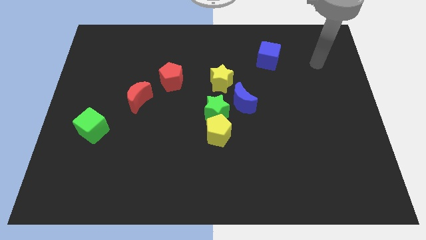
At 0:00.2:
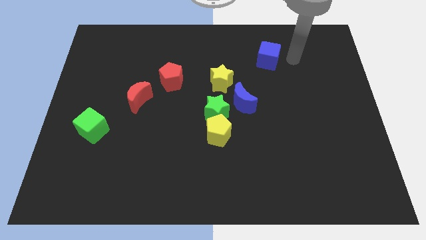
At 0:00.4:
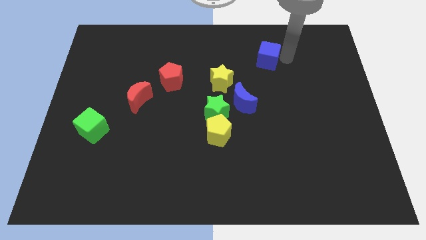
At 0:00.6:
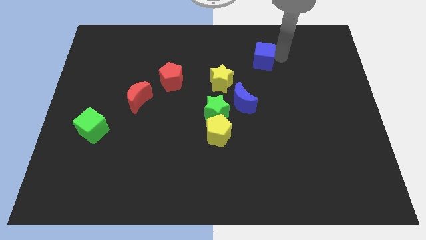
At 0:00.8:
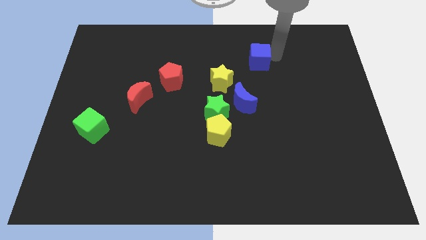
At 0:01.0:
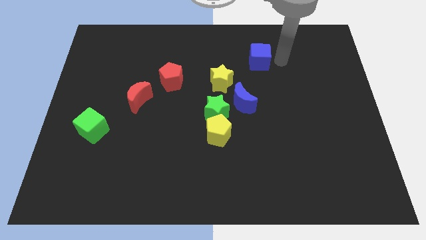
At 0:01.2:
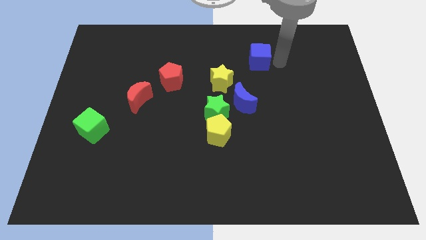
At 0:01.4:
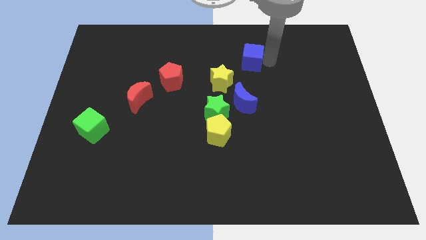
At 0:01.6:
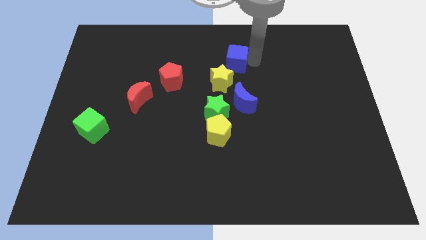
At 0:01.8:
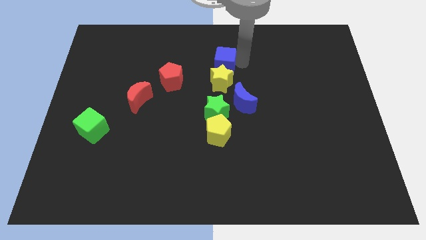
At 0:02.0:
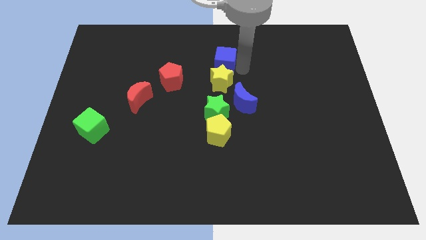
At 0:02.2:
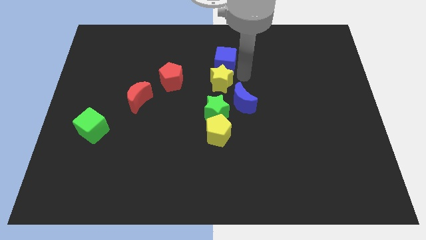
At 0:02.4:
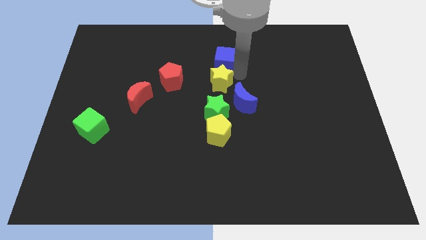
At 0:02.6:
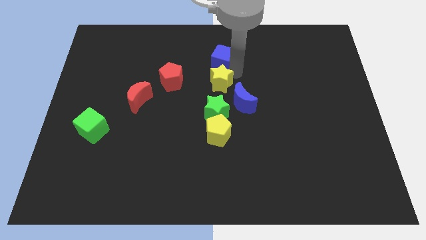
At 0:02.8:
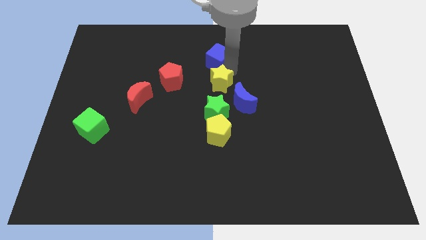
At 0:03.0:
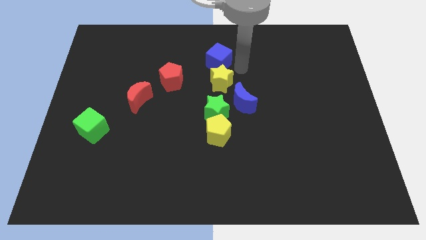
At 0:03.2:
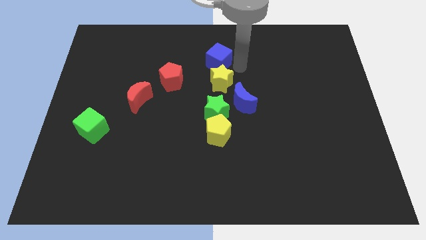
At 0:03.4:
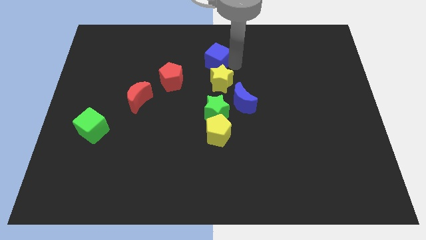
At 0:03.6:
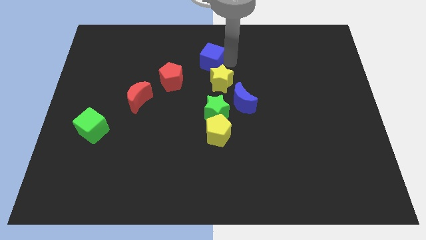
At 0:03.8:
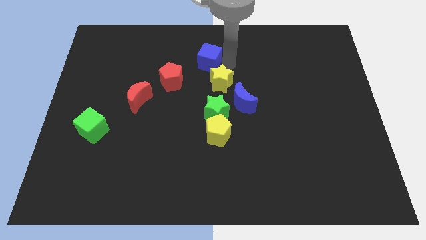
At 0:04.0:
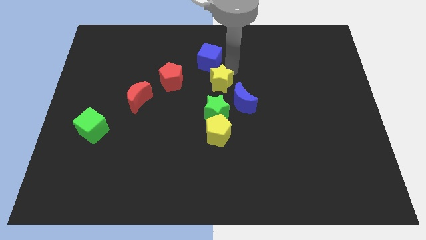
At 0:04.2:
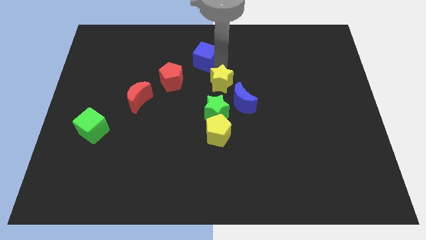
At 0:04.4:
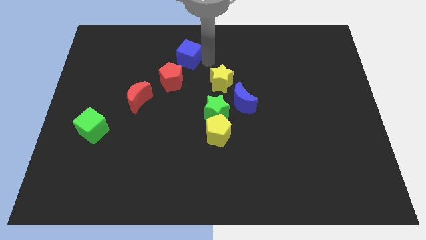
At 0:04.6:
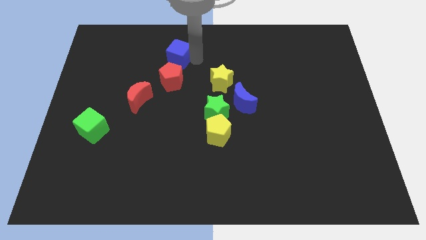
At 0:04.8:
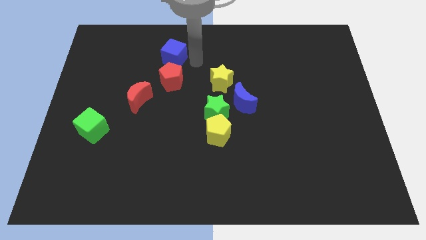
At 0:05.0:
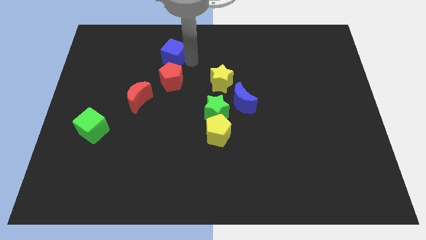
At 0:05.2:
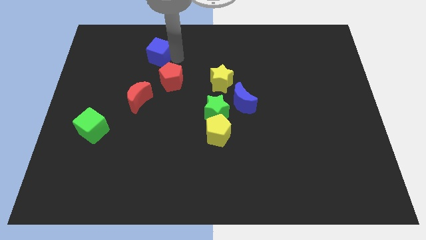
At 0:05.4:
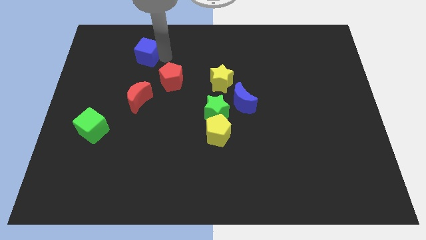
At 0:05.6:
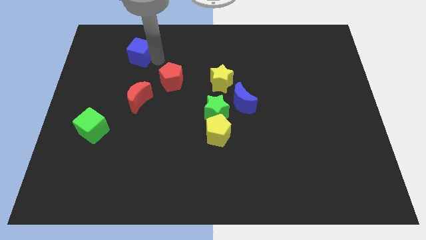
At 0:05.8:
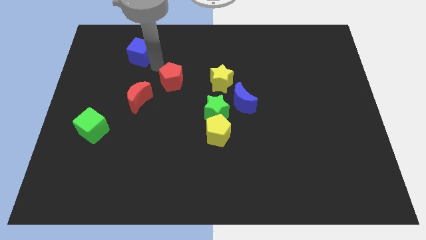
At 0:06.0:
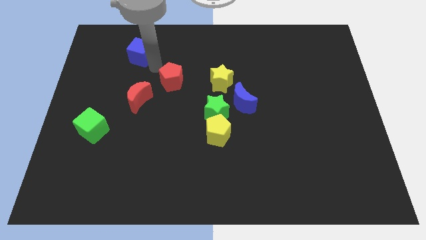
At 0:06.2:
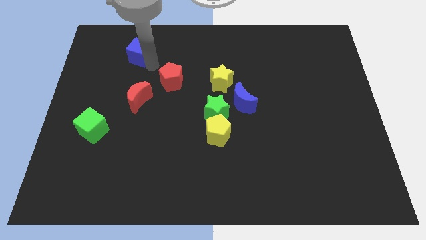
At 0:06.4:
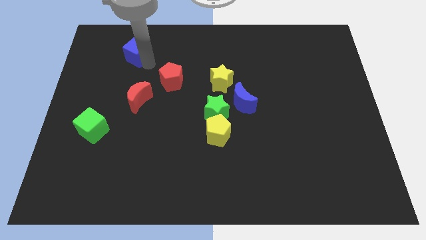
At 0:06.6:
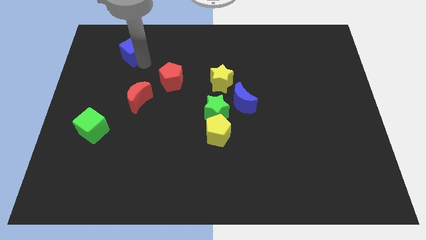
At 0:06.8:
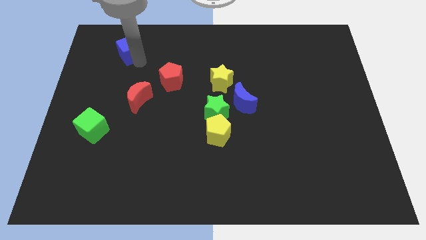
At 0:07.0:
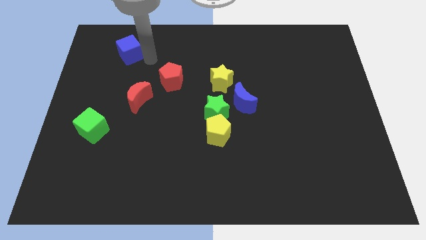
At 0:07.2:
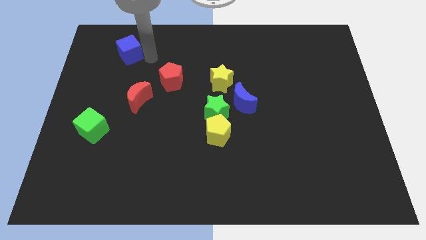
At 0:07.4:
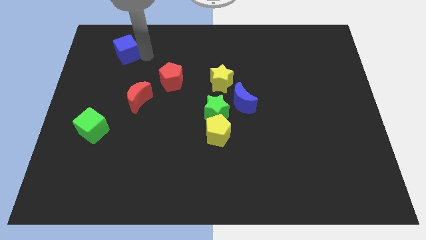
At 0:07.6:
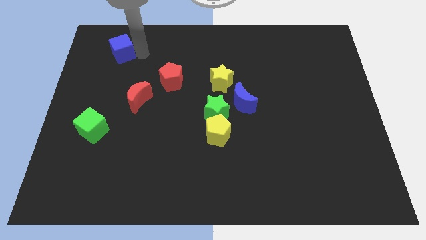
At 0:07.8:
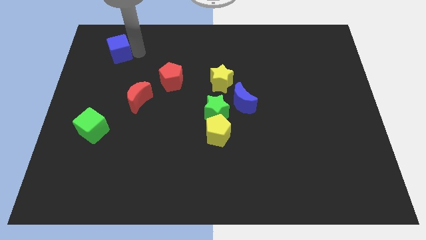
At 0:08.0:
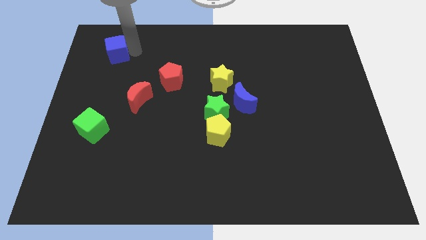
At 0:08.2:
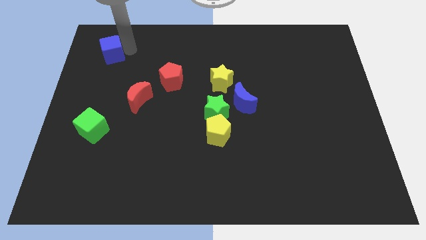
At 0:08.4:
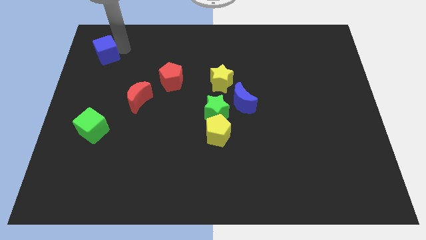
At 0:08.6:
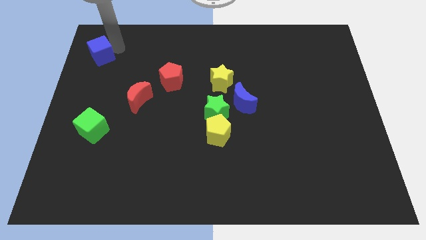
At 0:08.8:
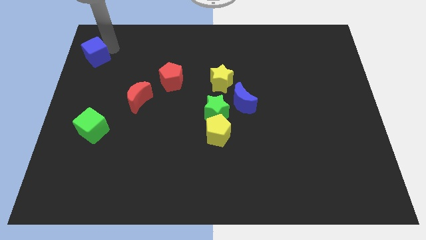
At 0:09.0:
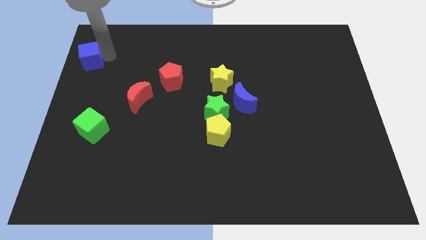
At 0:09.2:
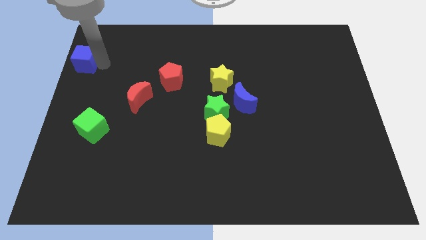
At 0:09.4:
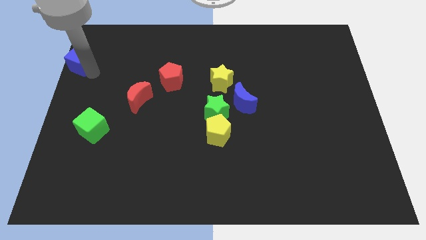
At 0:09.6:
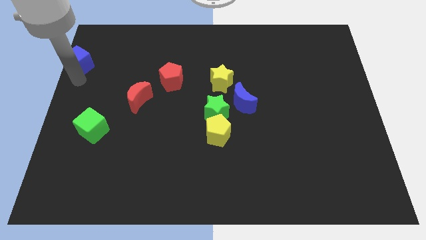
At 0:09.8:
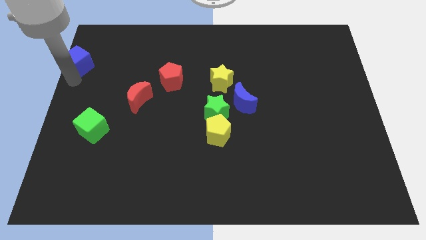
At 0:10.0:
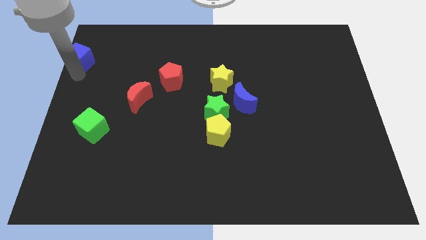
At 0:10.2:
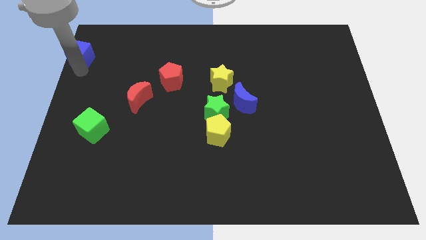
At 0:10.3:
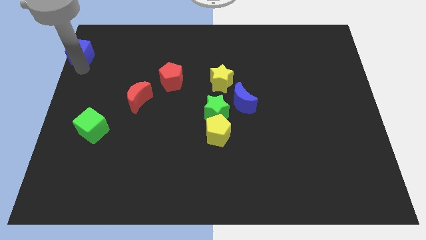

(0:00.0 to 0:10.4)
slide the blue cube to the upper left corner

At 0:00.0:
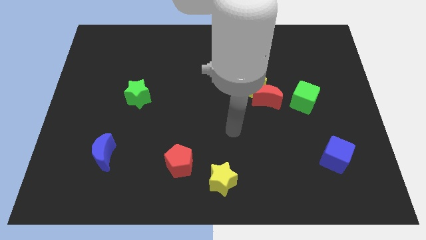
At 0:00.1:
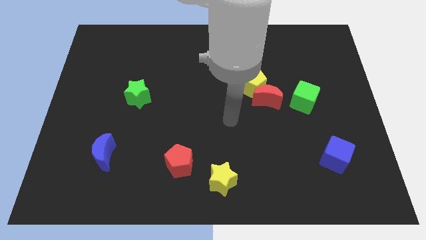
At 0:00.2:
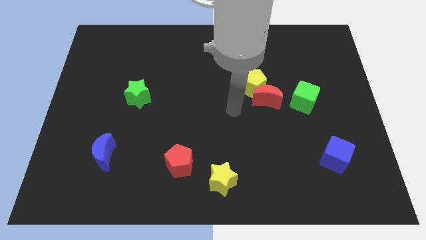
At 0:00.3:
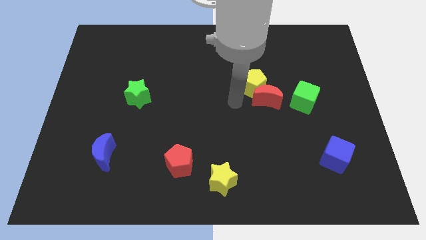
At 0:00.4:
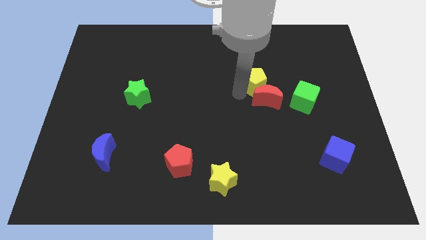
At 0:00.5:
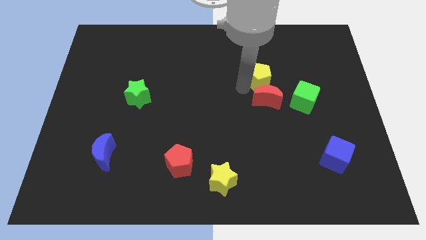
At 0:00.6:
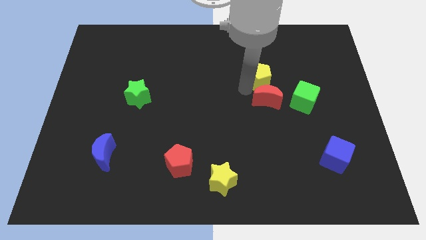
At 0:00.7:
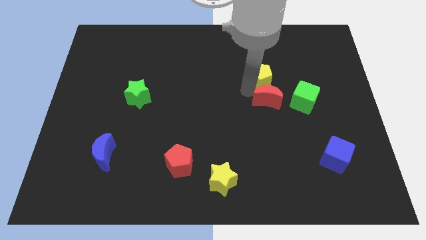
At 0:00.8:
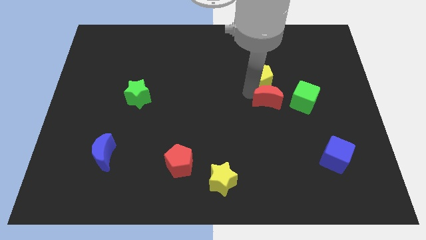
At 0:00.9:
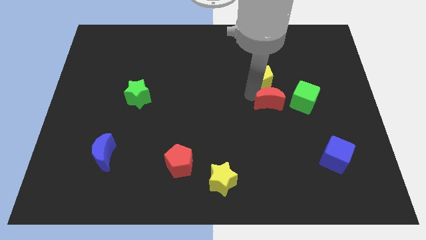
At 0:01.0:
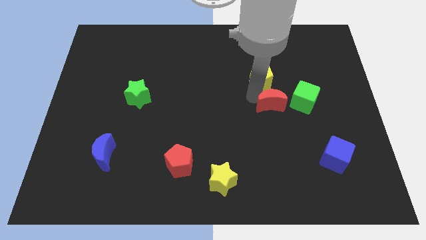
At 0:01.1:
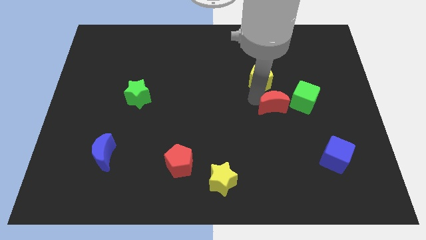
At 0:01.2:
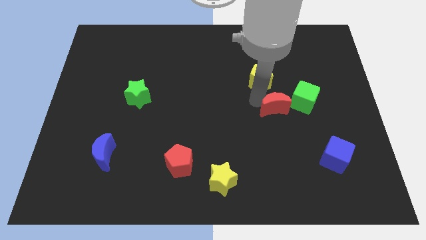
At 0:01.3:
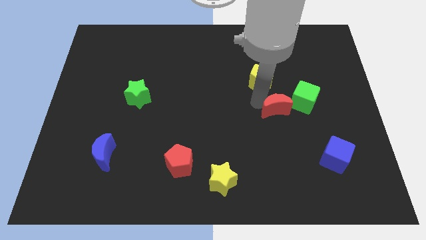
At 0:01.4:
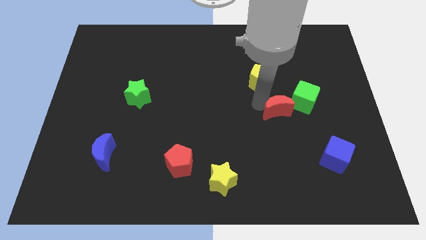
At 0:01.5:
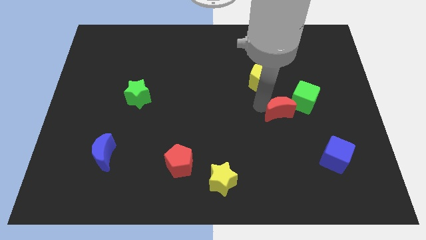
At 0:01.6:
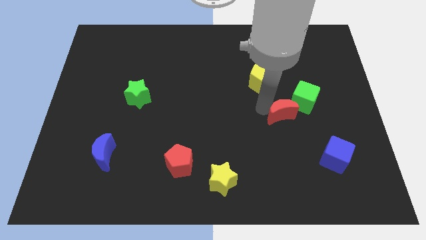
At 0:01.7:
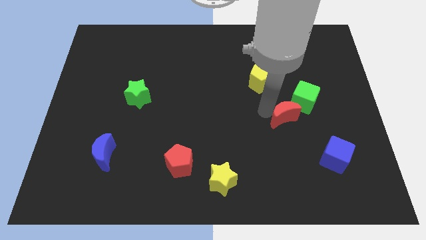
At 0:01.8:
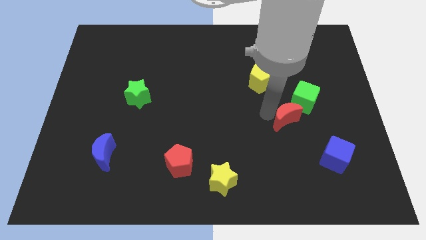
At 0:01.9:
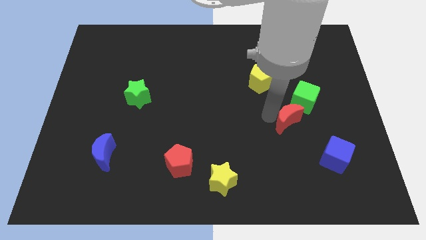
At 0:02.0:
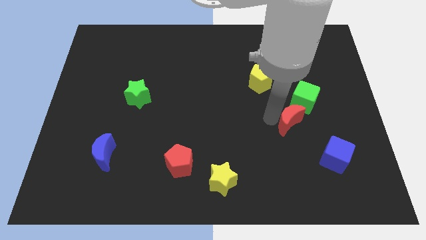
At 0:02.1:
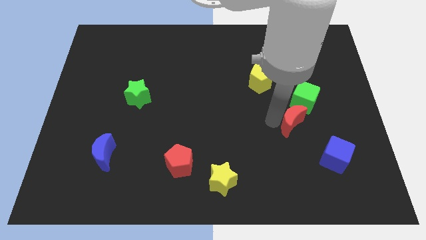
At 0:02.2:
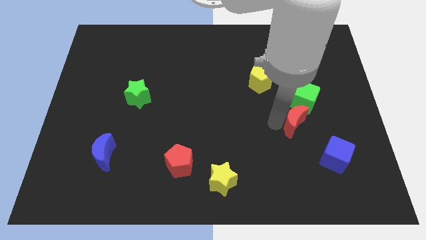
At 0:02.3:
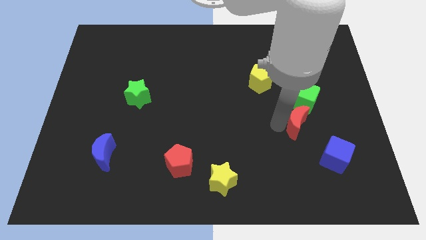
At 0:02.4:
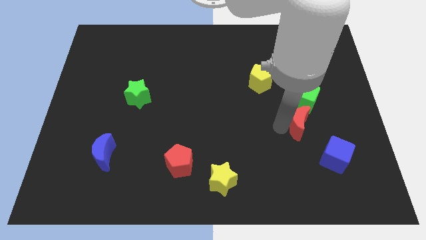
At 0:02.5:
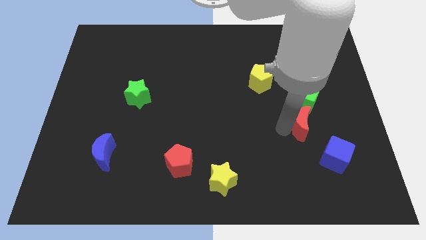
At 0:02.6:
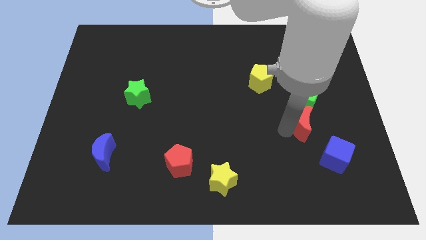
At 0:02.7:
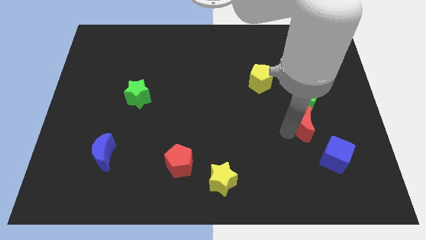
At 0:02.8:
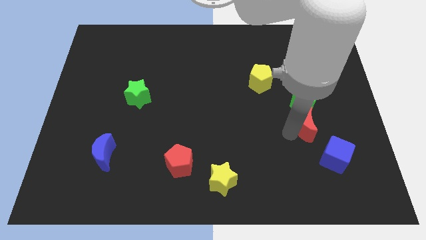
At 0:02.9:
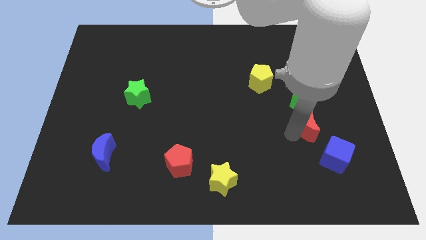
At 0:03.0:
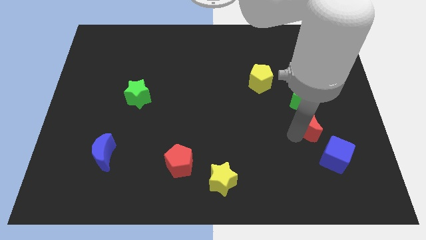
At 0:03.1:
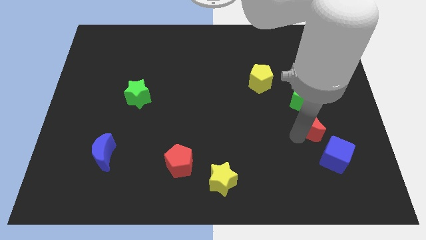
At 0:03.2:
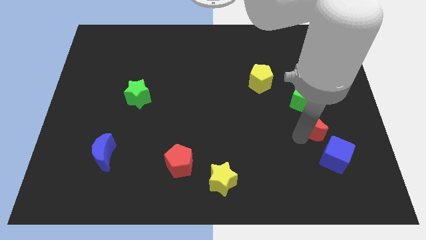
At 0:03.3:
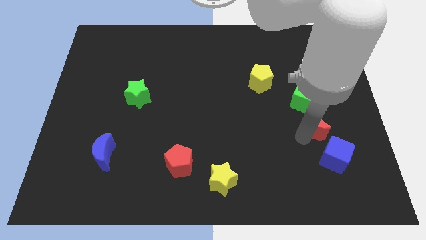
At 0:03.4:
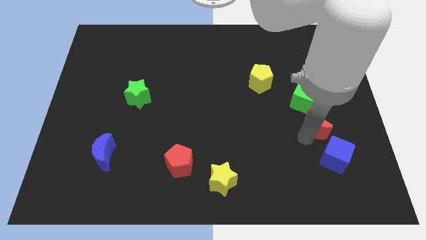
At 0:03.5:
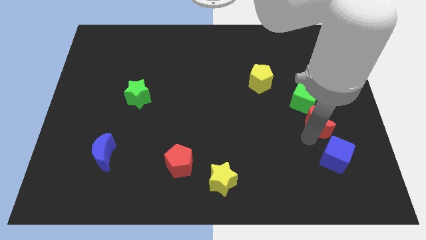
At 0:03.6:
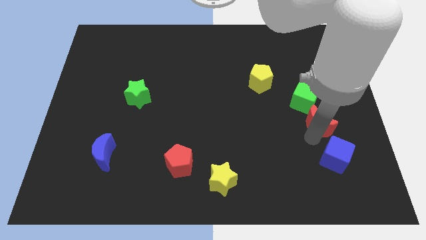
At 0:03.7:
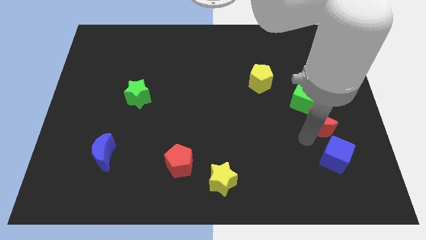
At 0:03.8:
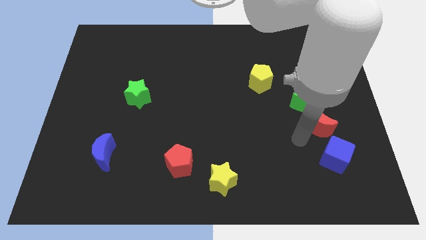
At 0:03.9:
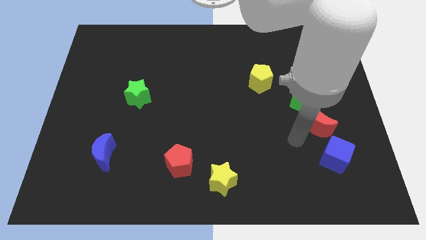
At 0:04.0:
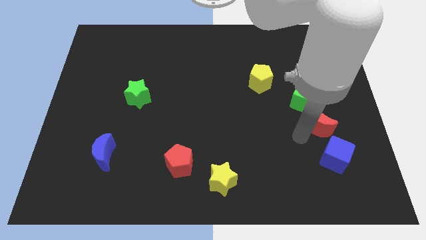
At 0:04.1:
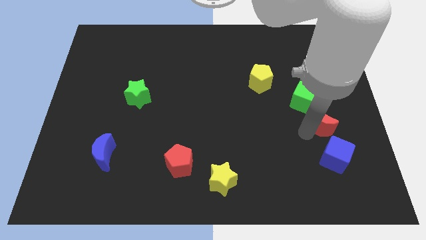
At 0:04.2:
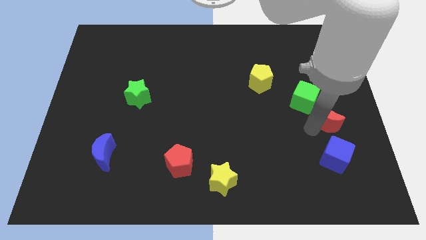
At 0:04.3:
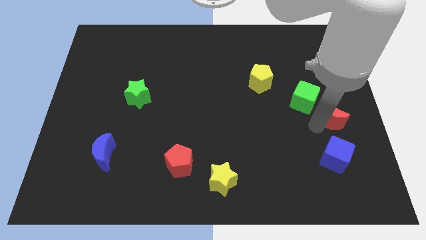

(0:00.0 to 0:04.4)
move the red moon to the right side of the board
